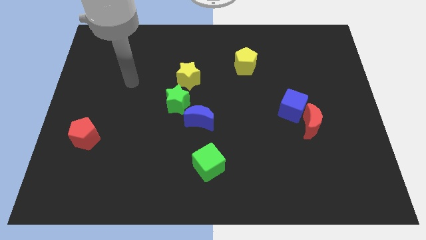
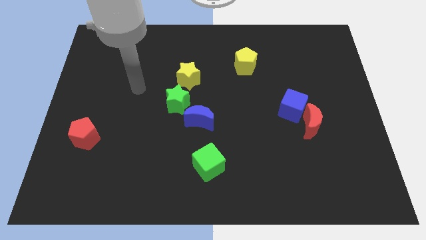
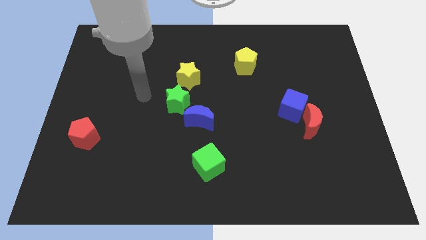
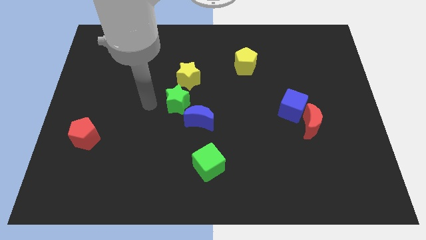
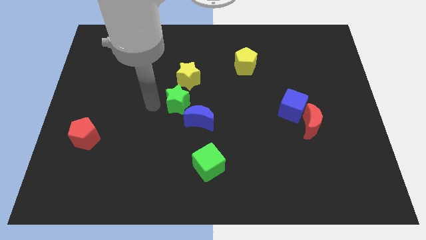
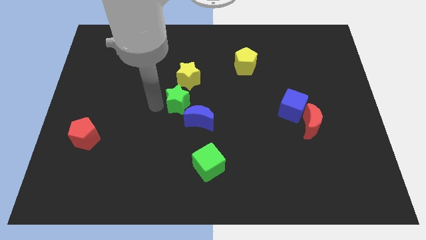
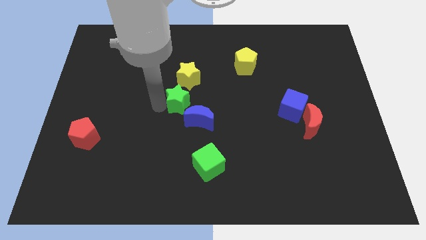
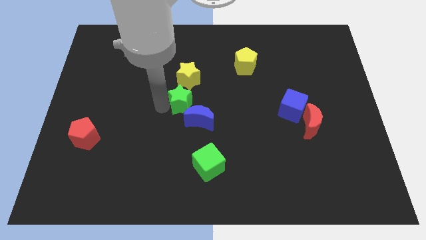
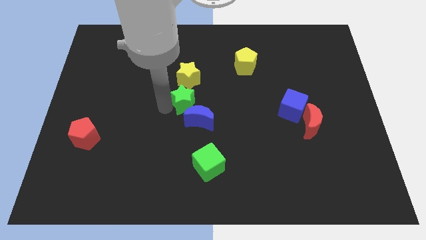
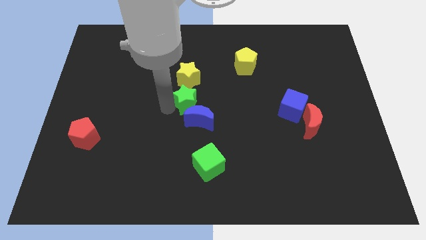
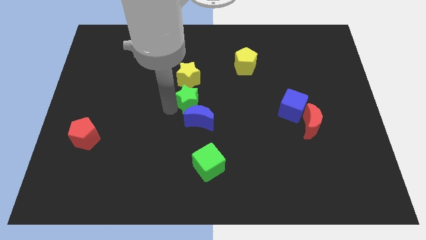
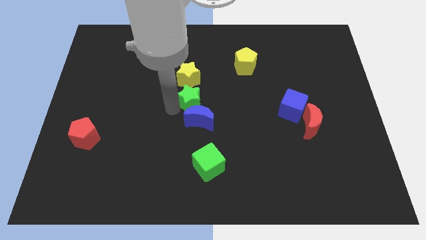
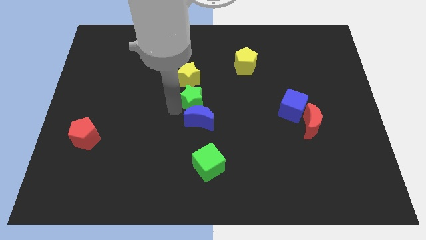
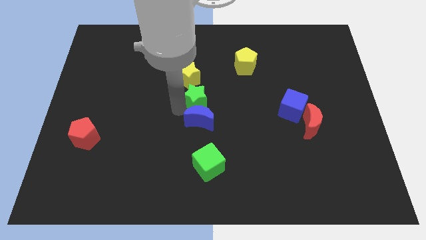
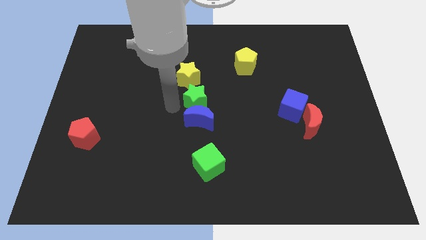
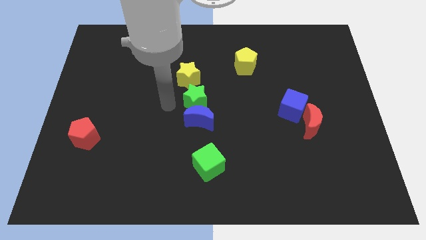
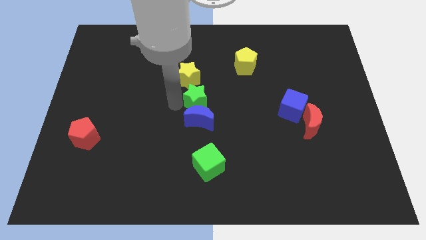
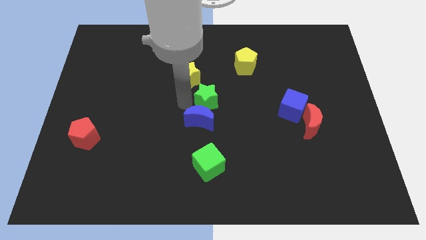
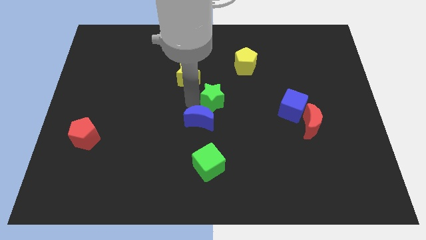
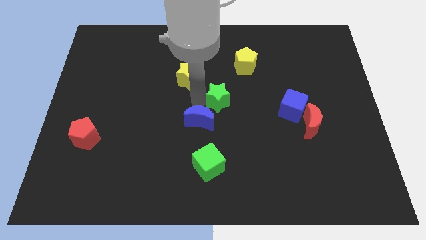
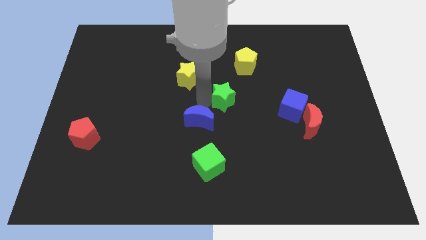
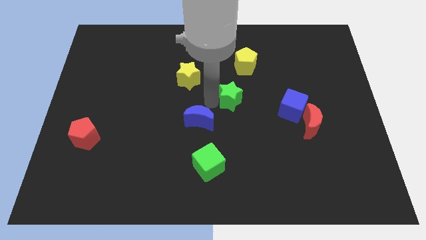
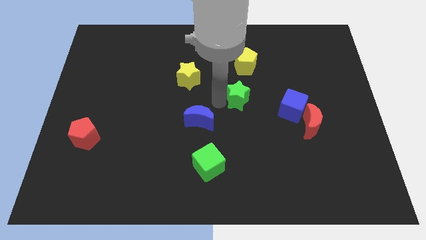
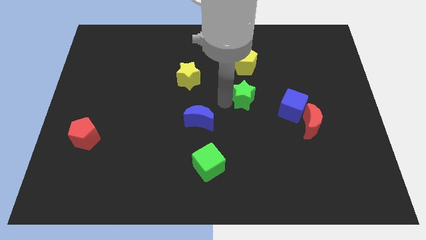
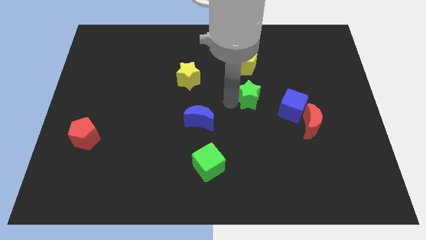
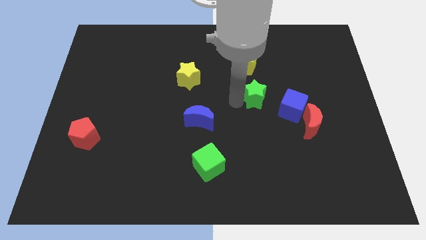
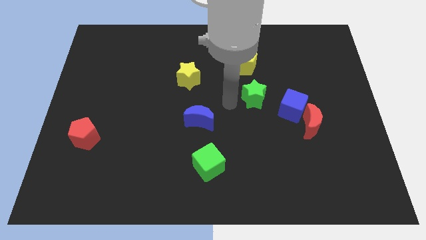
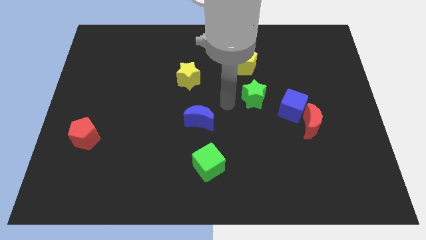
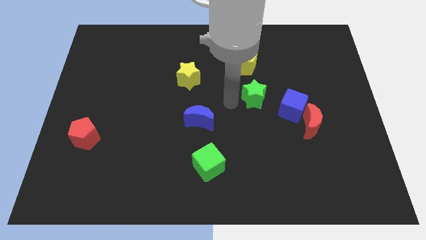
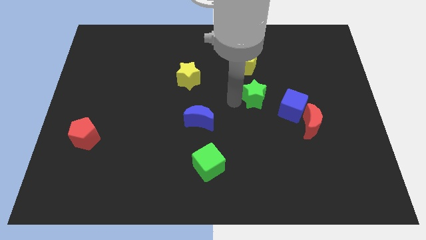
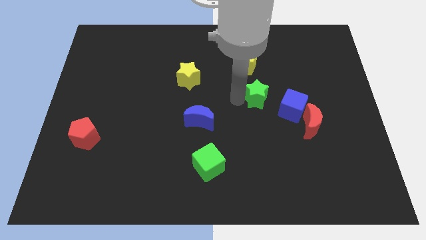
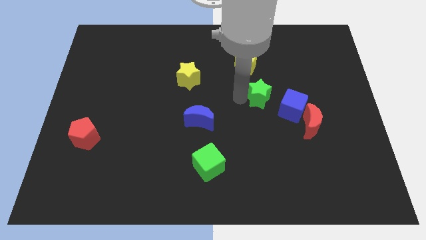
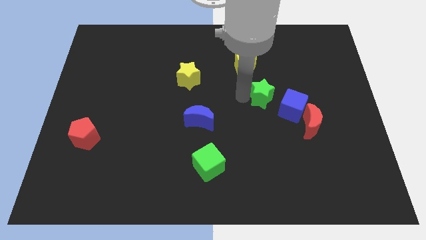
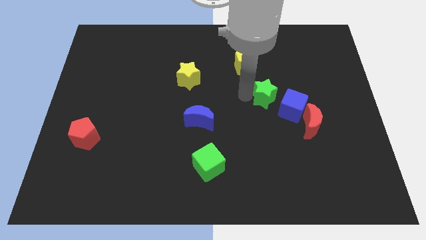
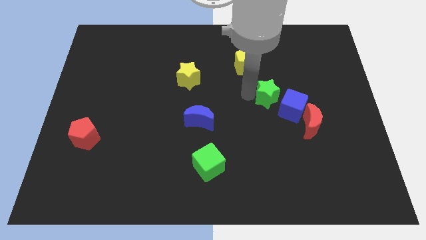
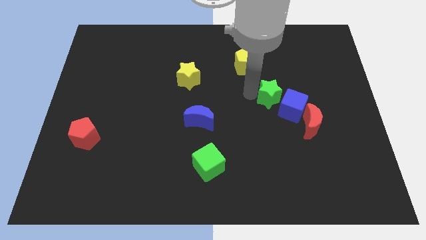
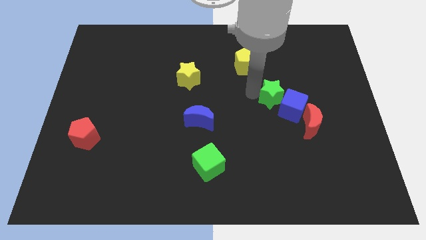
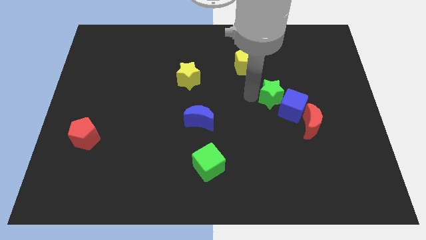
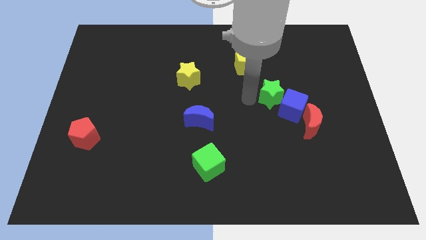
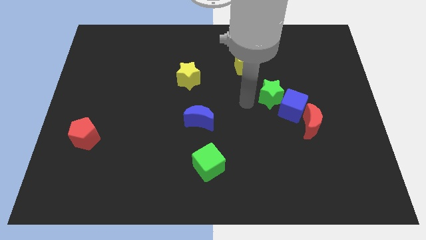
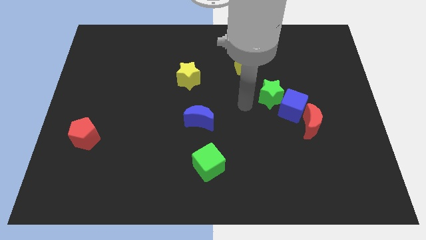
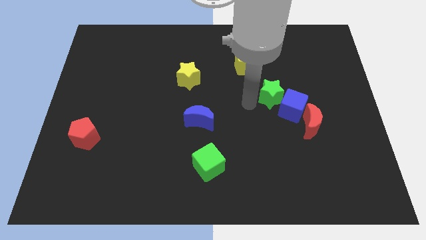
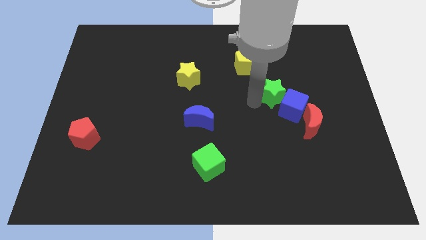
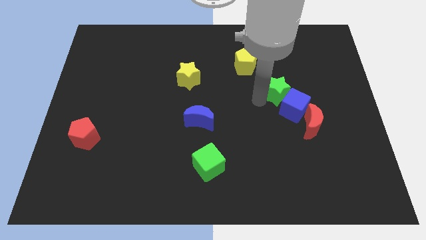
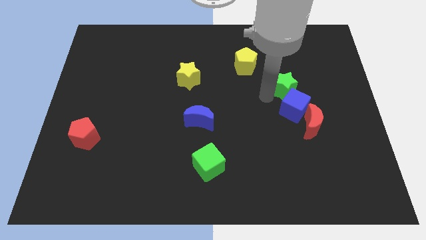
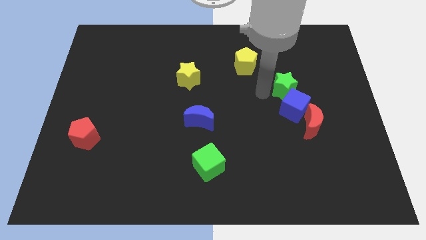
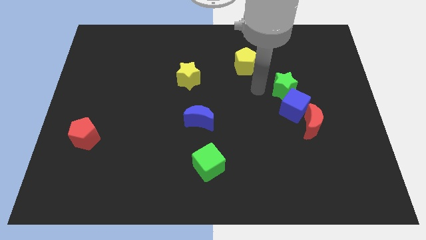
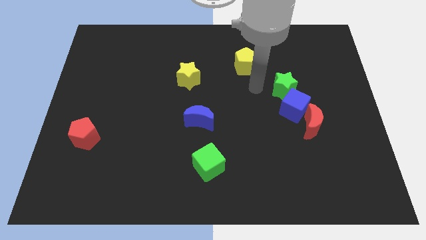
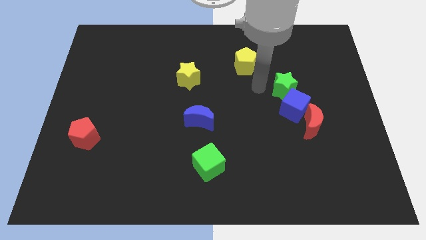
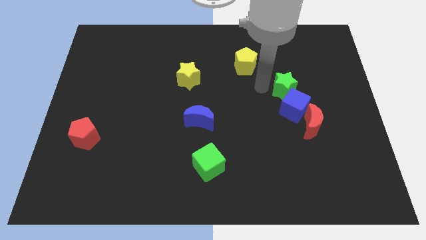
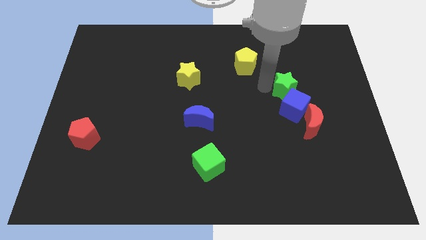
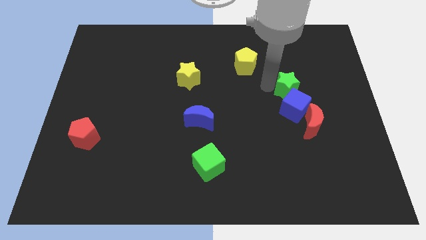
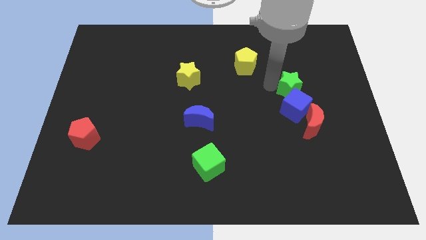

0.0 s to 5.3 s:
move the green star to the top right of the blue cube

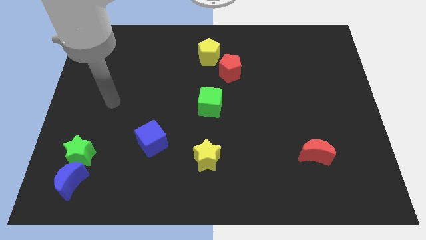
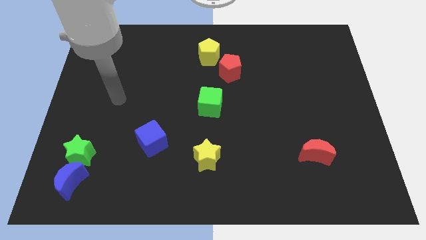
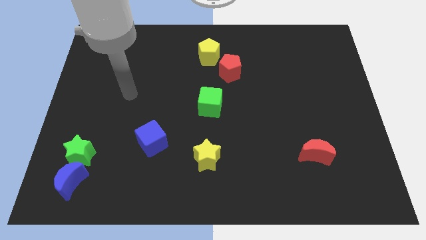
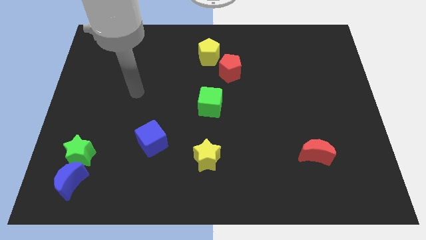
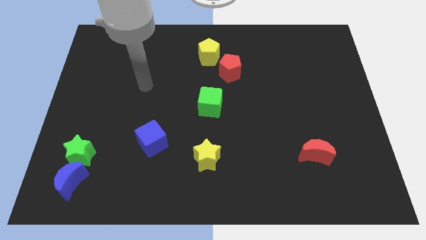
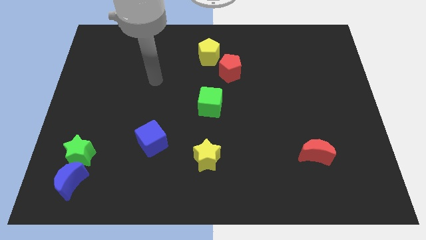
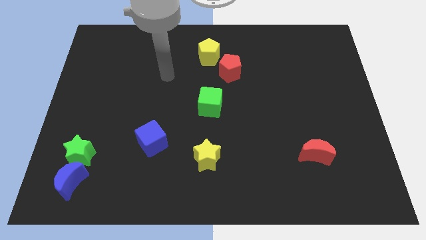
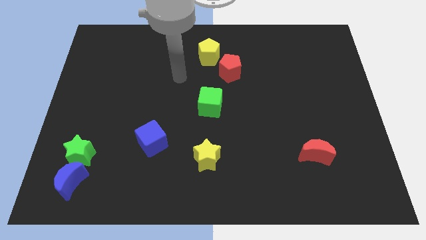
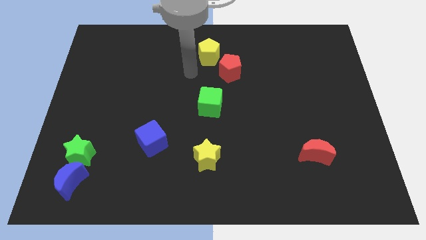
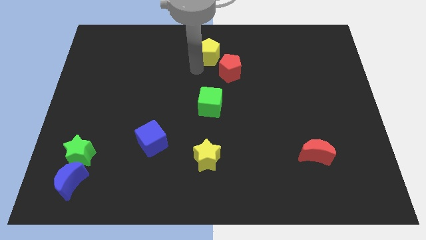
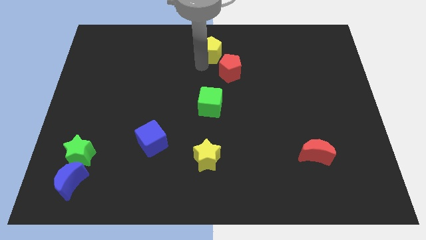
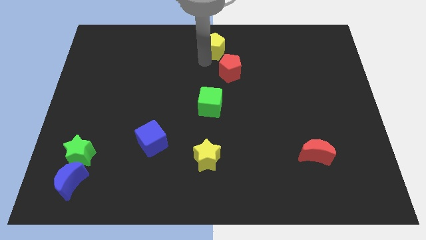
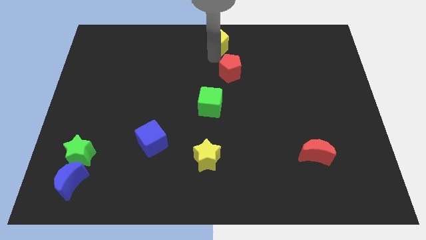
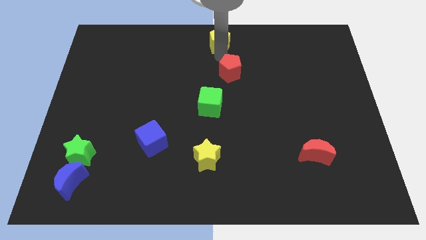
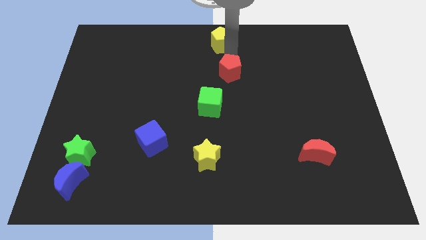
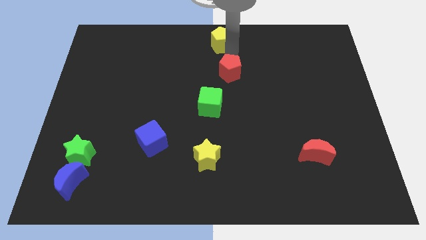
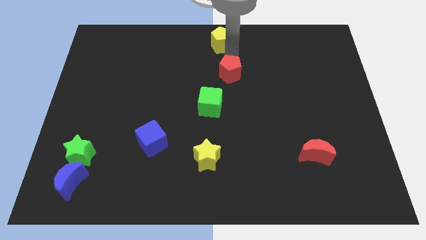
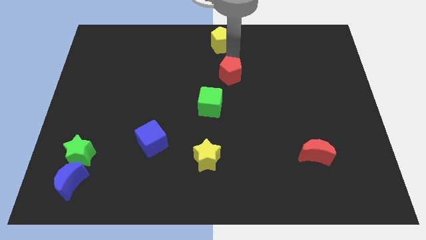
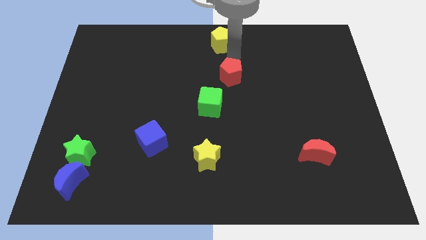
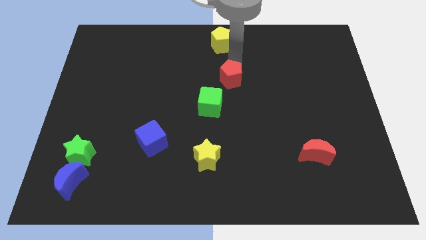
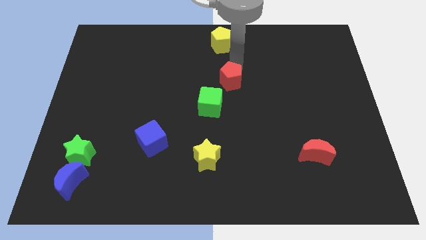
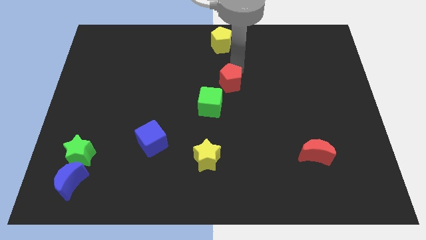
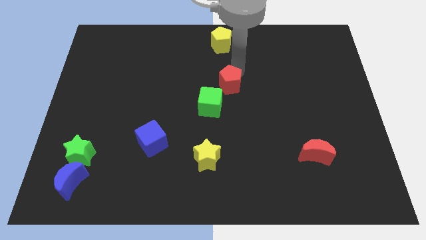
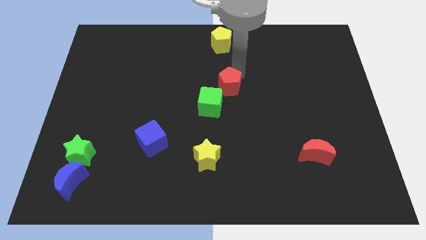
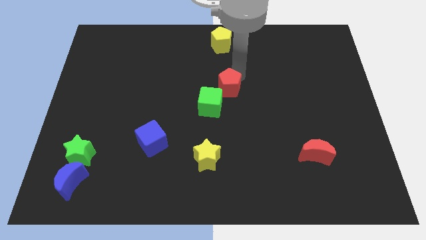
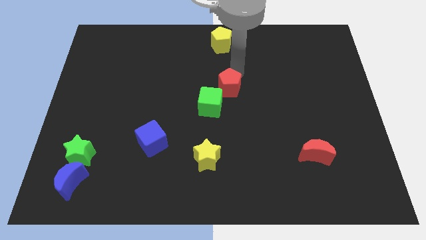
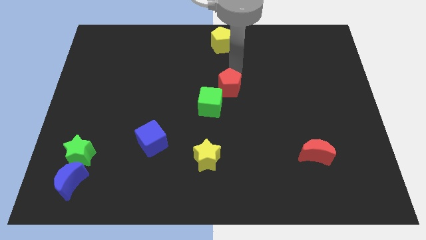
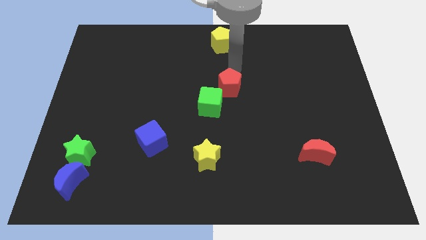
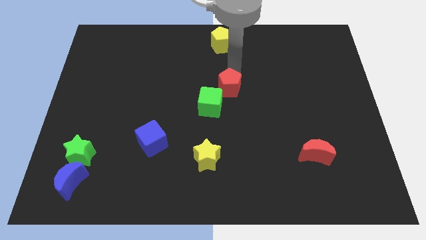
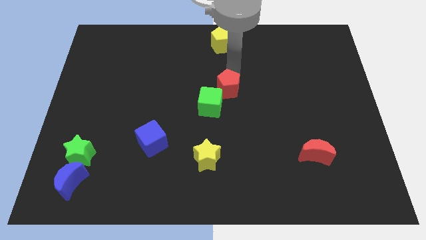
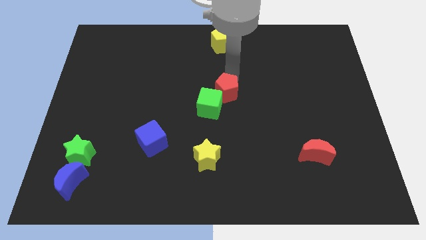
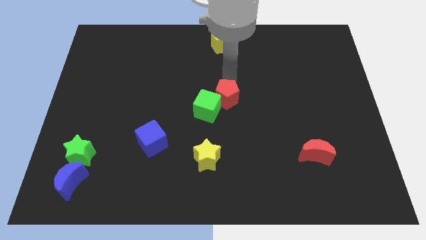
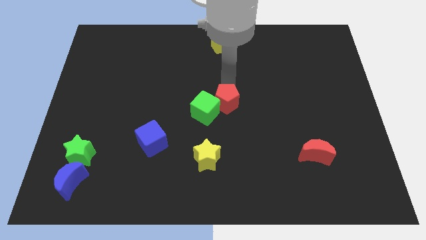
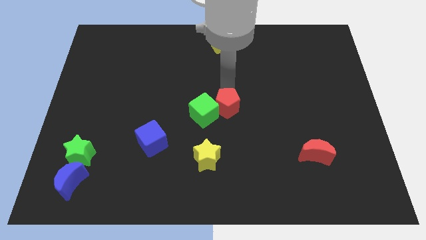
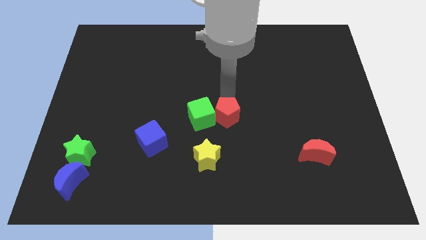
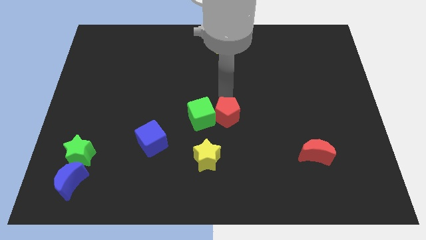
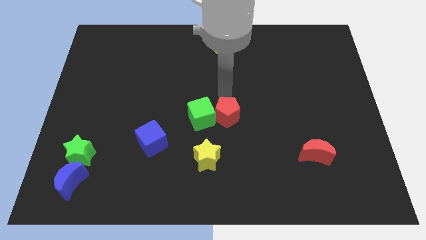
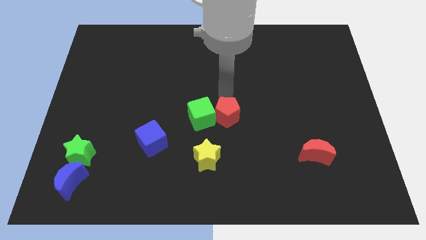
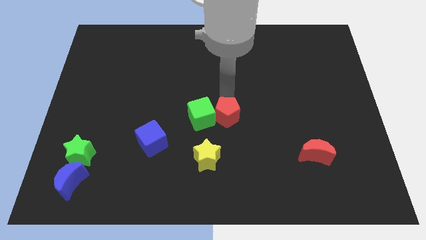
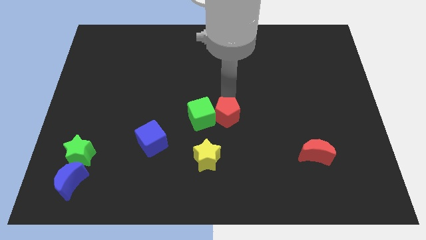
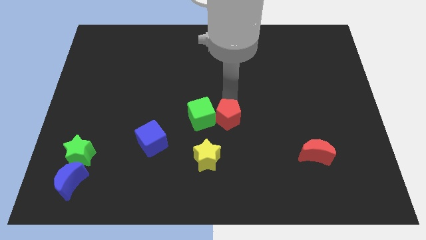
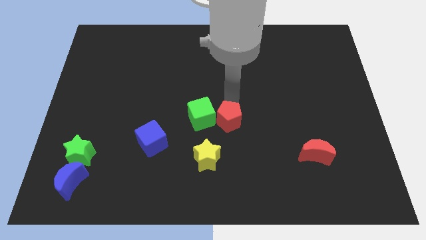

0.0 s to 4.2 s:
push the red pentagon diagonally up and to the right of the yellow star
